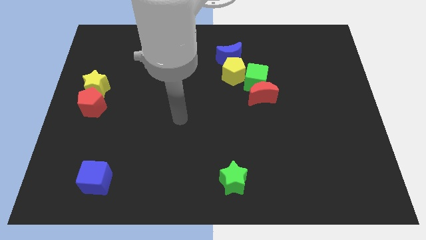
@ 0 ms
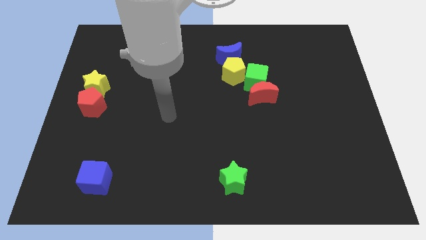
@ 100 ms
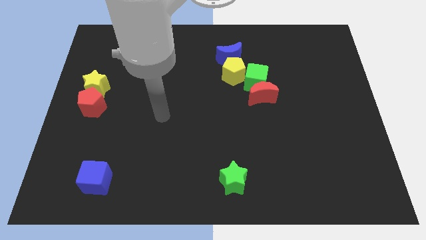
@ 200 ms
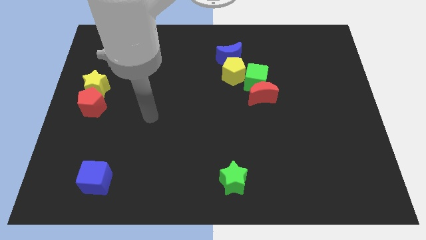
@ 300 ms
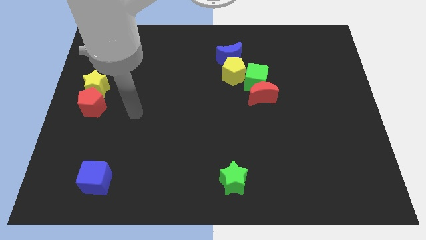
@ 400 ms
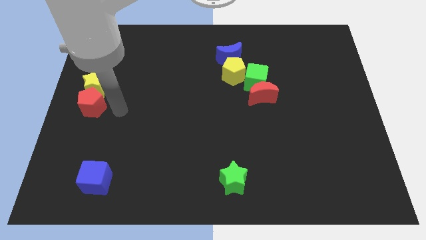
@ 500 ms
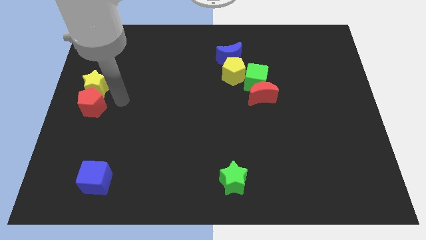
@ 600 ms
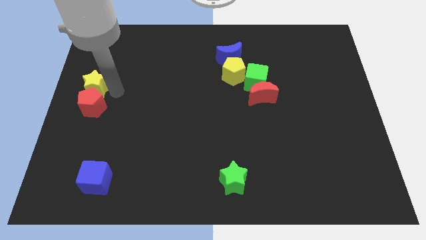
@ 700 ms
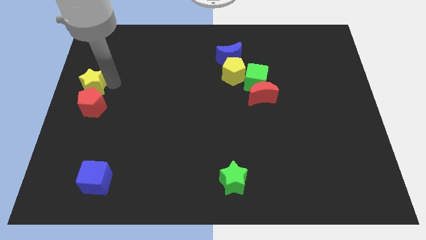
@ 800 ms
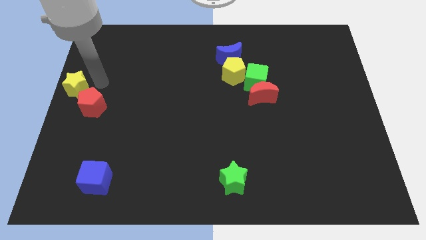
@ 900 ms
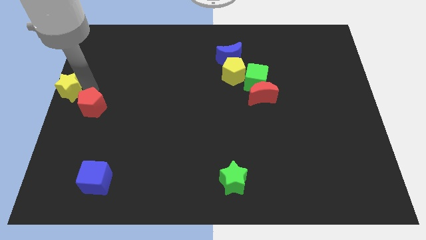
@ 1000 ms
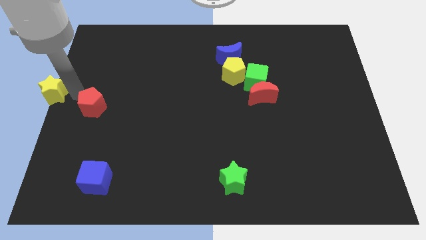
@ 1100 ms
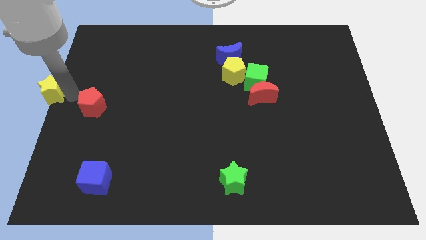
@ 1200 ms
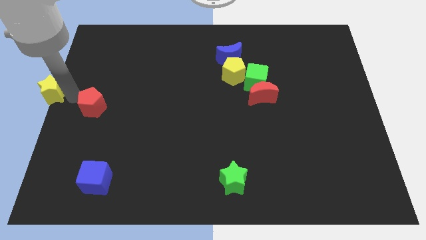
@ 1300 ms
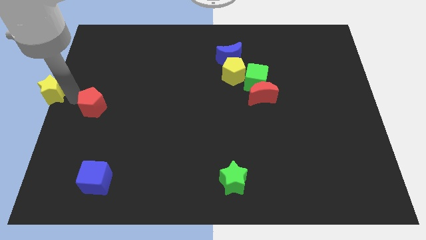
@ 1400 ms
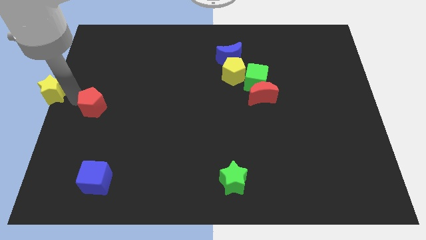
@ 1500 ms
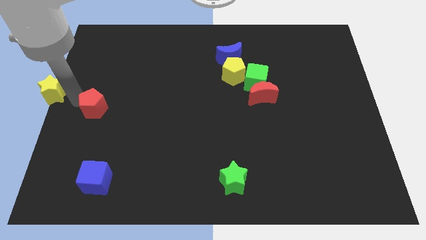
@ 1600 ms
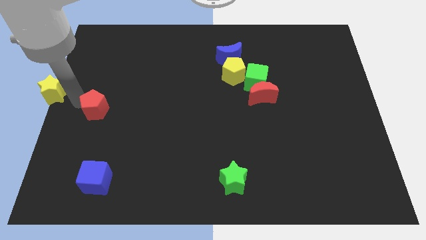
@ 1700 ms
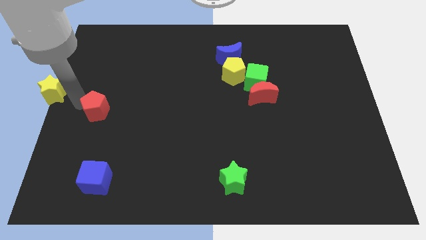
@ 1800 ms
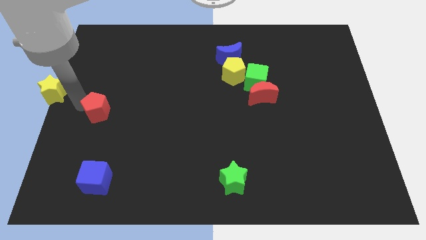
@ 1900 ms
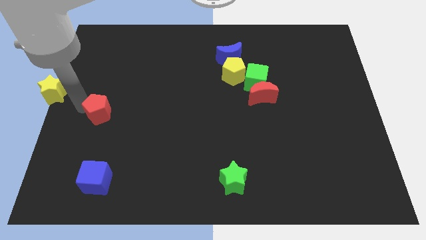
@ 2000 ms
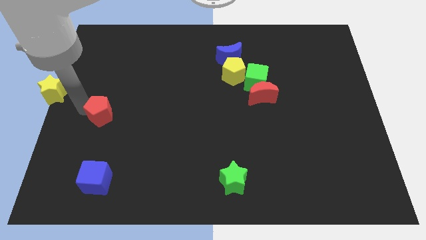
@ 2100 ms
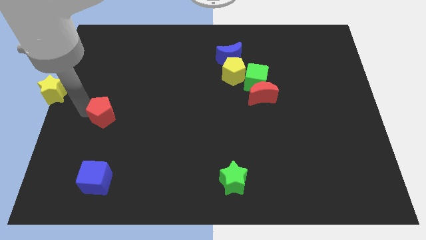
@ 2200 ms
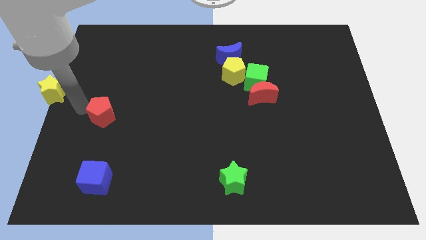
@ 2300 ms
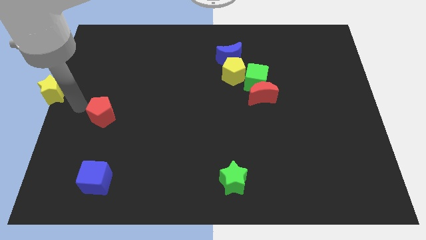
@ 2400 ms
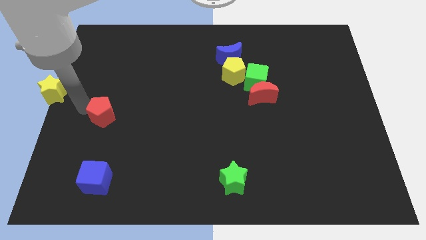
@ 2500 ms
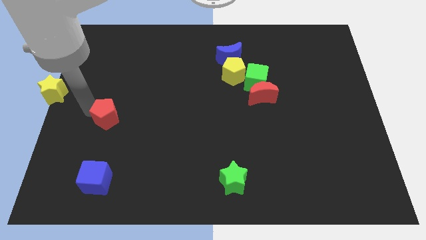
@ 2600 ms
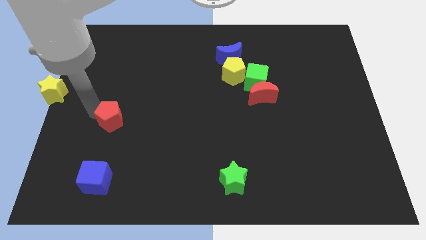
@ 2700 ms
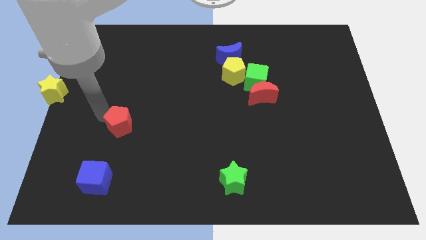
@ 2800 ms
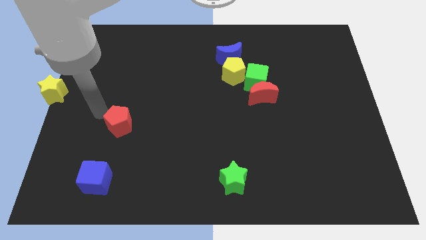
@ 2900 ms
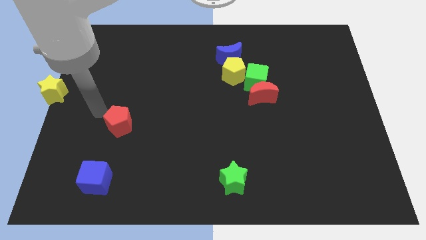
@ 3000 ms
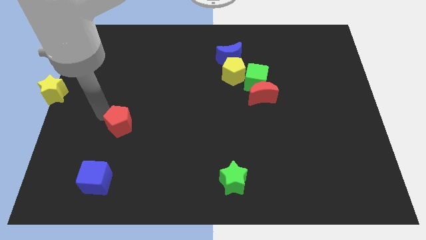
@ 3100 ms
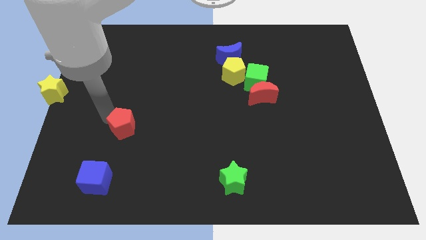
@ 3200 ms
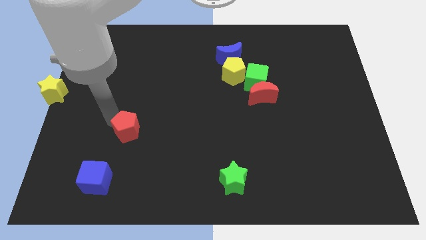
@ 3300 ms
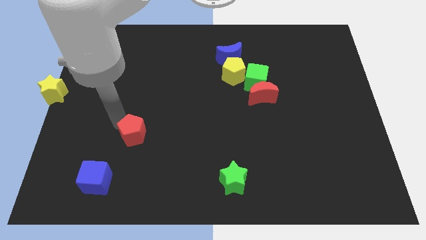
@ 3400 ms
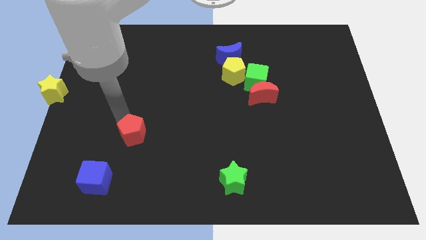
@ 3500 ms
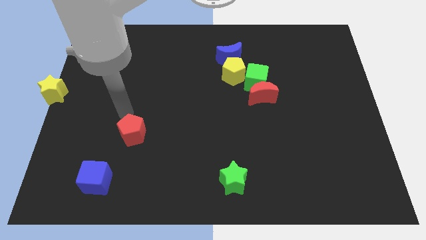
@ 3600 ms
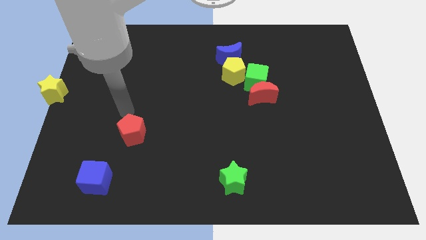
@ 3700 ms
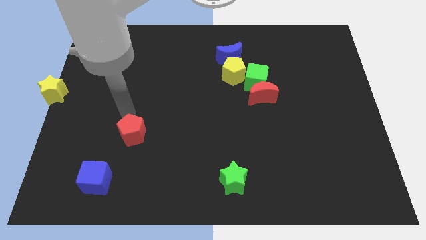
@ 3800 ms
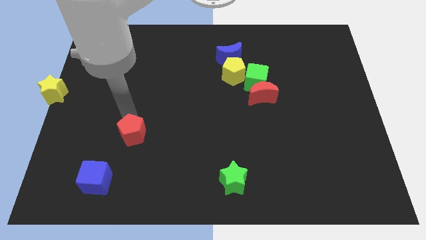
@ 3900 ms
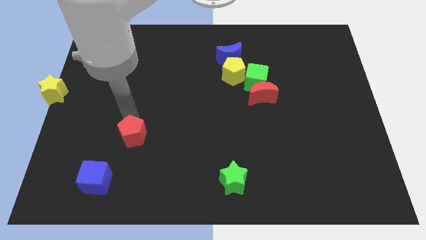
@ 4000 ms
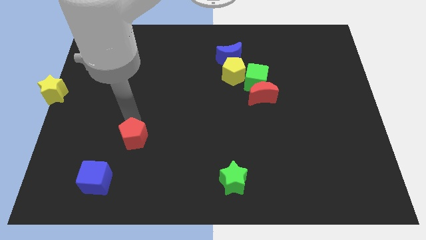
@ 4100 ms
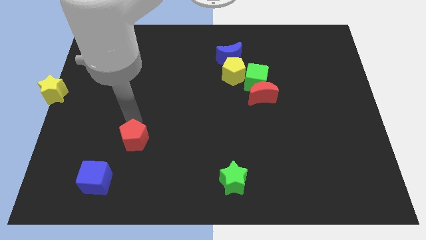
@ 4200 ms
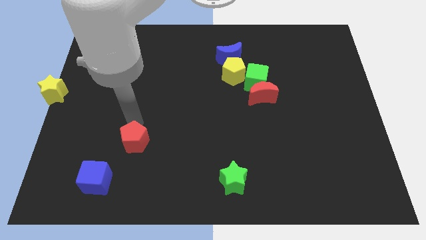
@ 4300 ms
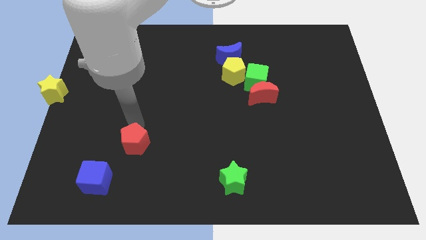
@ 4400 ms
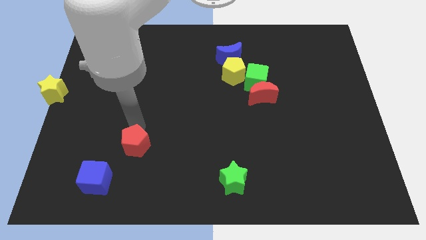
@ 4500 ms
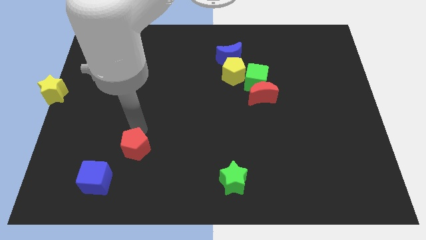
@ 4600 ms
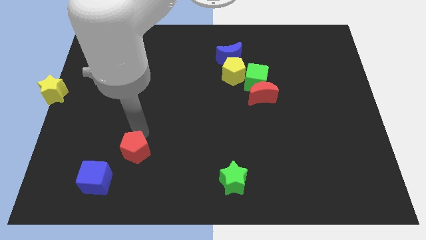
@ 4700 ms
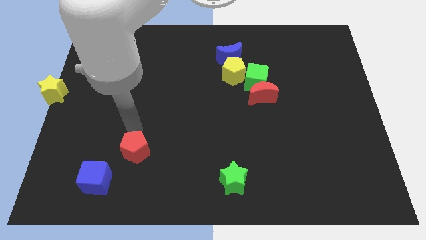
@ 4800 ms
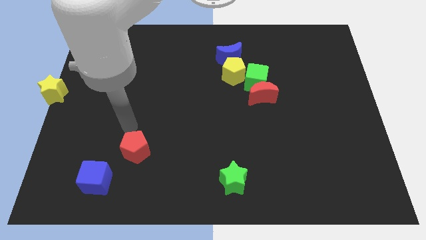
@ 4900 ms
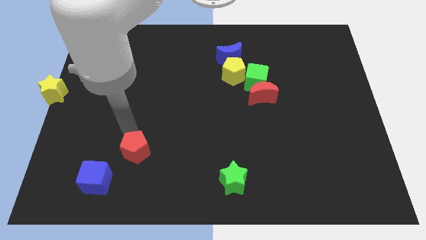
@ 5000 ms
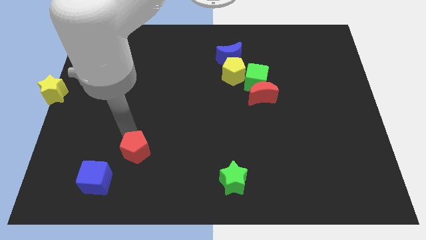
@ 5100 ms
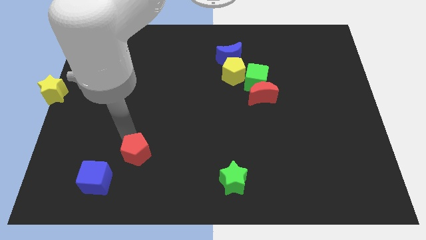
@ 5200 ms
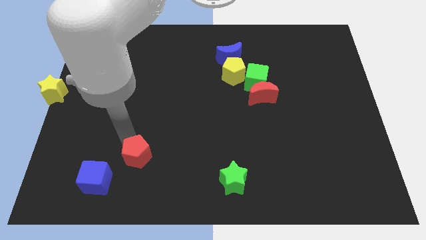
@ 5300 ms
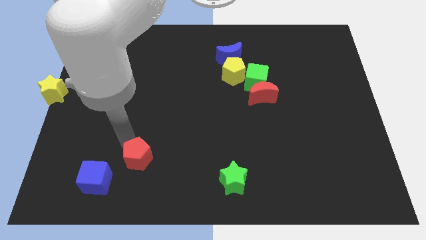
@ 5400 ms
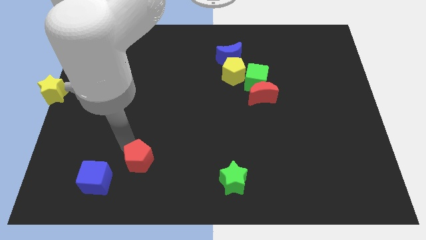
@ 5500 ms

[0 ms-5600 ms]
move the red pentagon right of the blue cube
